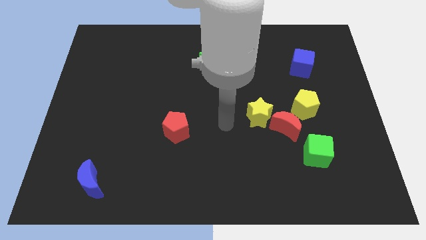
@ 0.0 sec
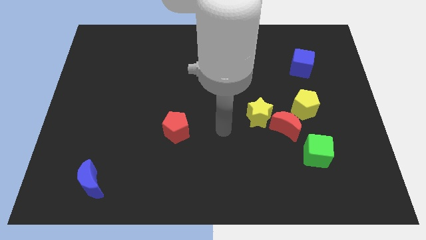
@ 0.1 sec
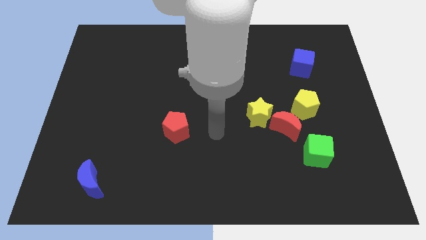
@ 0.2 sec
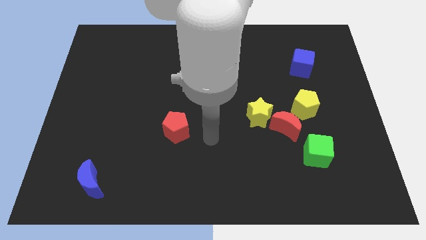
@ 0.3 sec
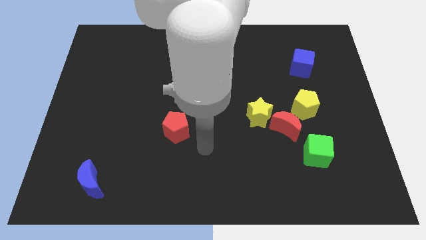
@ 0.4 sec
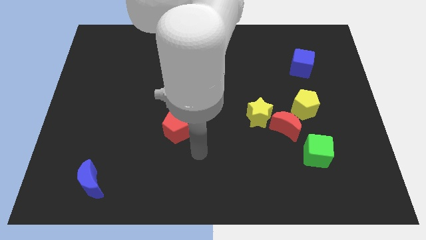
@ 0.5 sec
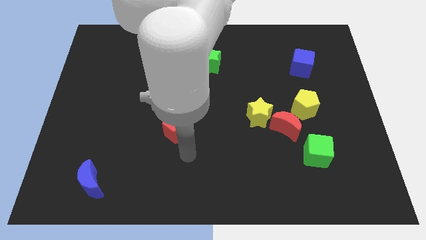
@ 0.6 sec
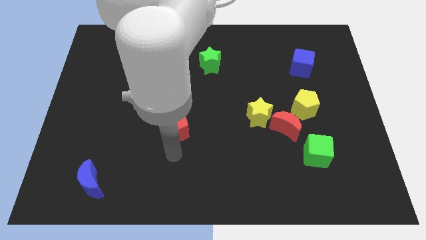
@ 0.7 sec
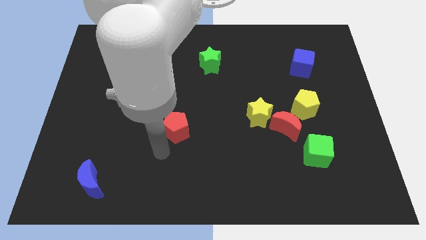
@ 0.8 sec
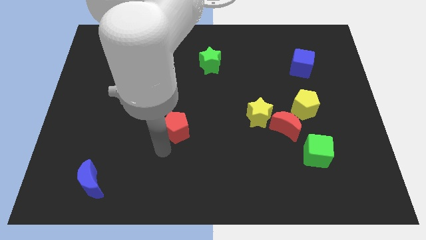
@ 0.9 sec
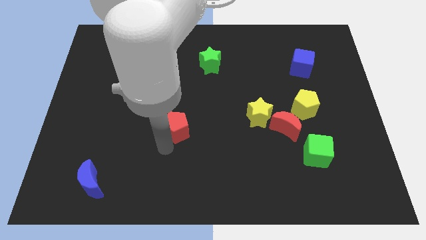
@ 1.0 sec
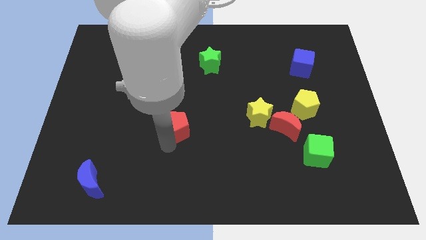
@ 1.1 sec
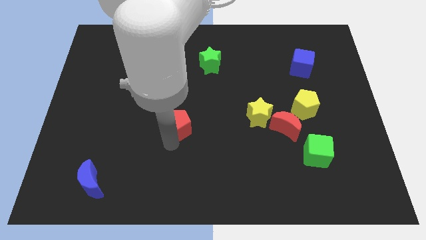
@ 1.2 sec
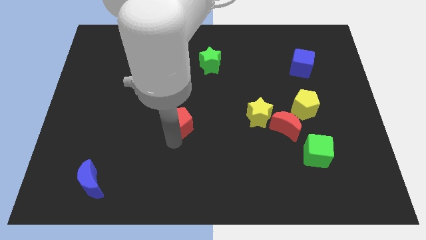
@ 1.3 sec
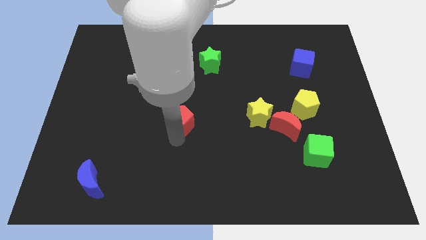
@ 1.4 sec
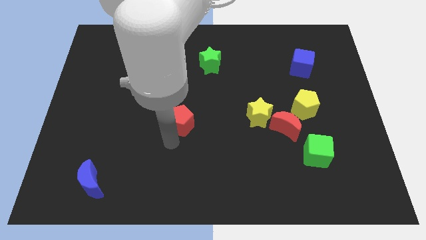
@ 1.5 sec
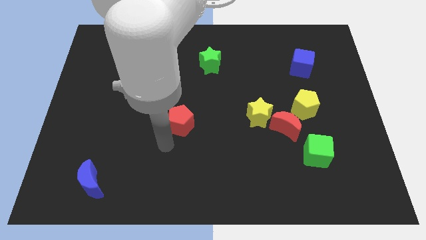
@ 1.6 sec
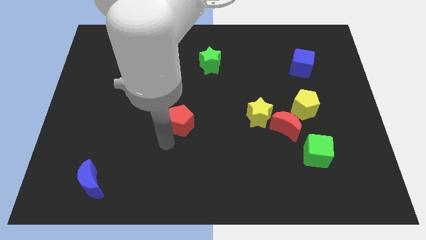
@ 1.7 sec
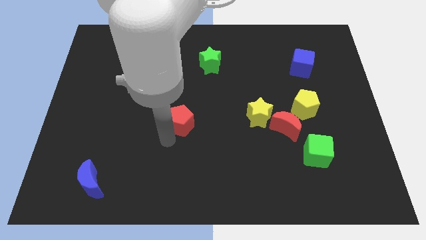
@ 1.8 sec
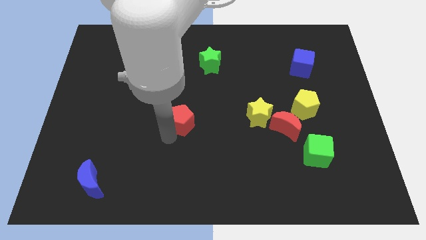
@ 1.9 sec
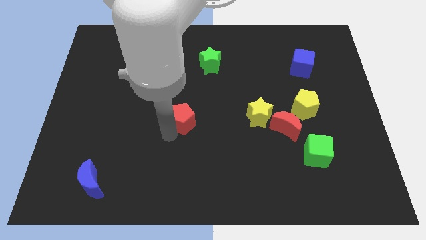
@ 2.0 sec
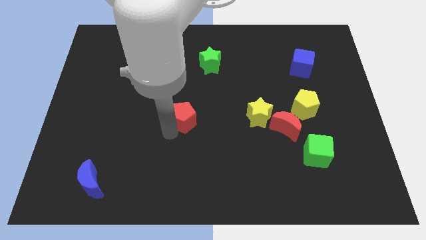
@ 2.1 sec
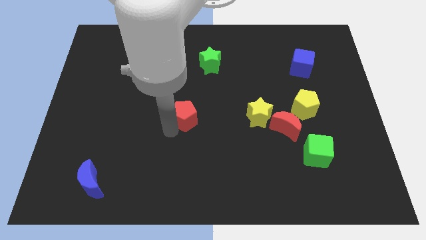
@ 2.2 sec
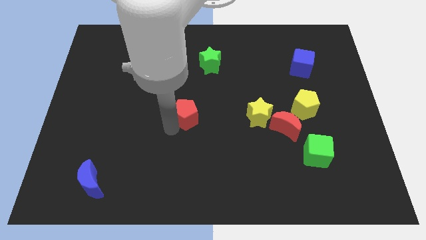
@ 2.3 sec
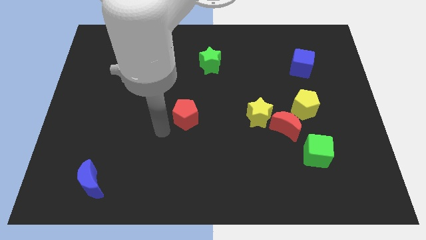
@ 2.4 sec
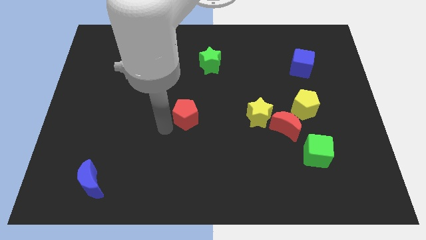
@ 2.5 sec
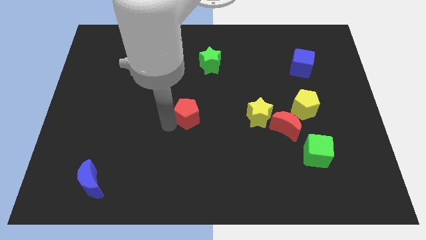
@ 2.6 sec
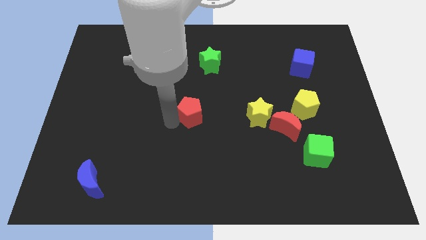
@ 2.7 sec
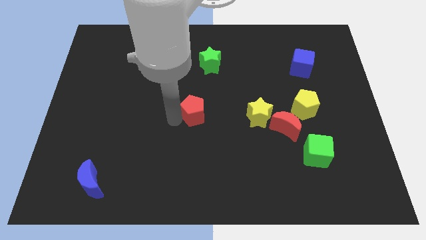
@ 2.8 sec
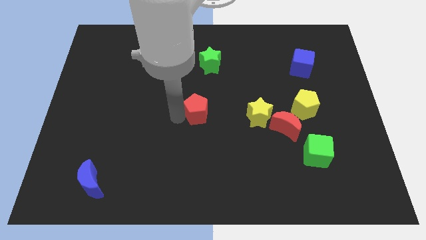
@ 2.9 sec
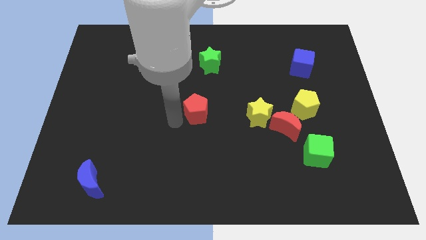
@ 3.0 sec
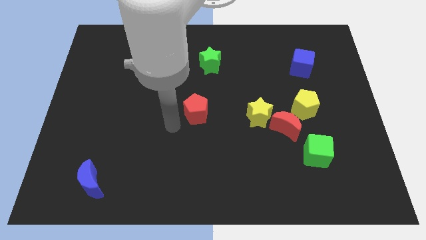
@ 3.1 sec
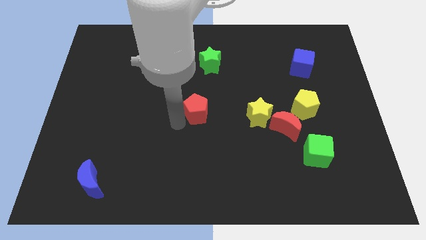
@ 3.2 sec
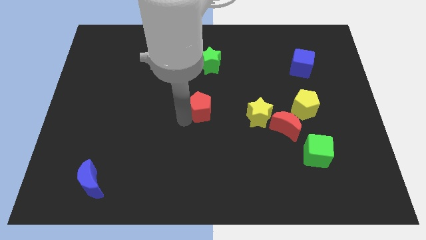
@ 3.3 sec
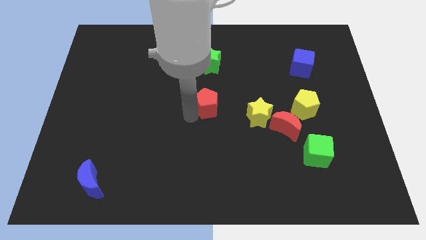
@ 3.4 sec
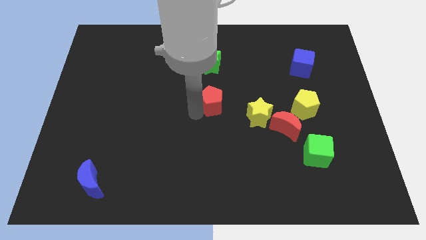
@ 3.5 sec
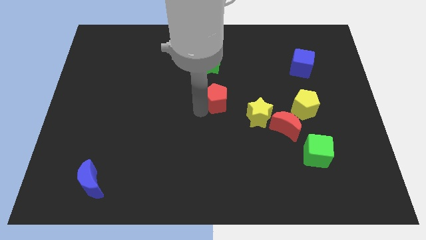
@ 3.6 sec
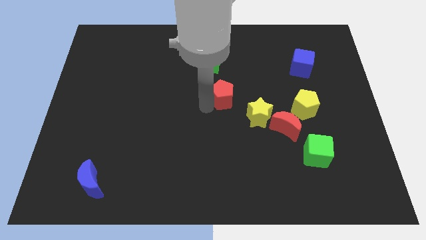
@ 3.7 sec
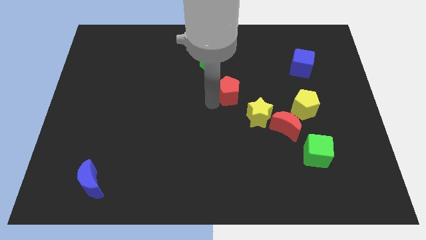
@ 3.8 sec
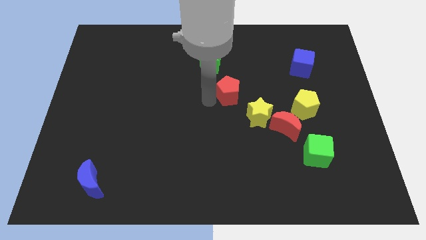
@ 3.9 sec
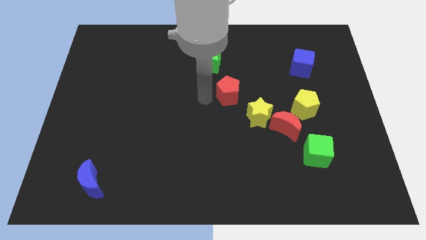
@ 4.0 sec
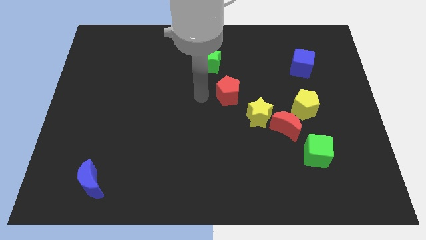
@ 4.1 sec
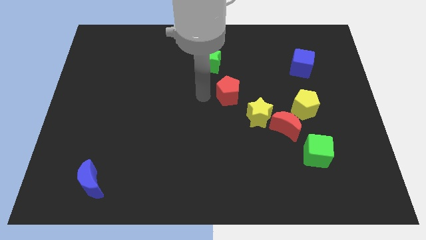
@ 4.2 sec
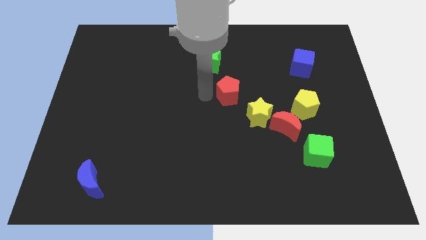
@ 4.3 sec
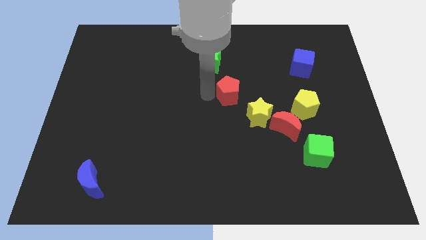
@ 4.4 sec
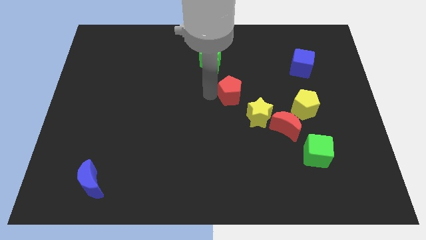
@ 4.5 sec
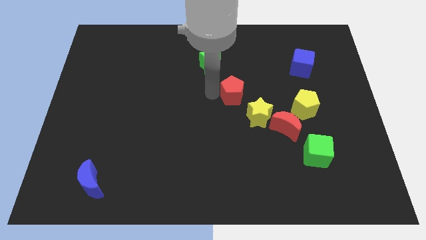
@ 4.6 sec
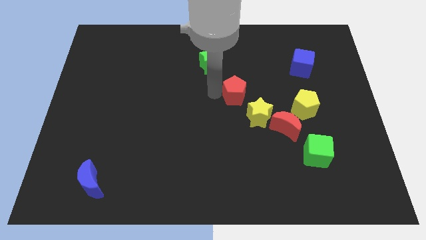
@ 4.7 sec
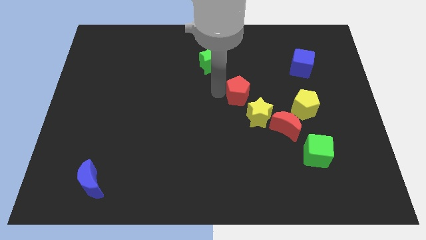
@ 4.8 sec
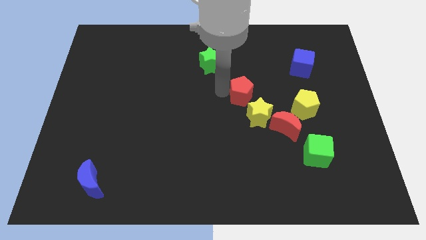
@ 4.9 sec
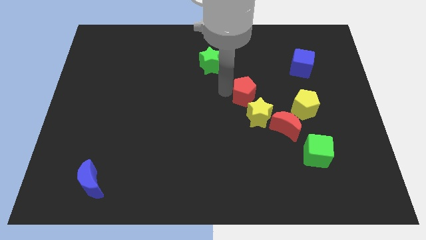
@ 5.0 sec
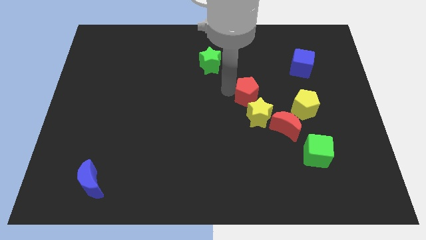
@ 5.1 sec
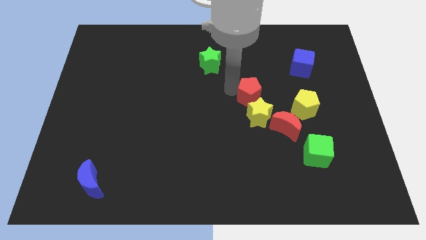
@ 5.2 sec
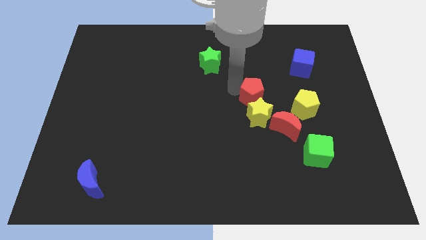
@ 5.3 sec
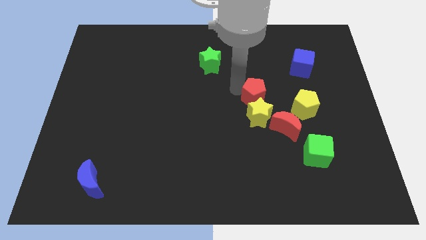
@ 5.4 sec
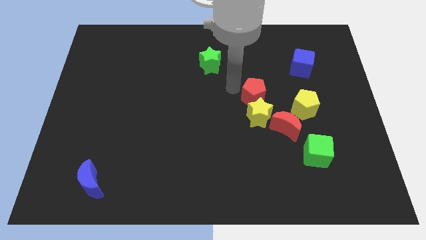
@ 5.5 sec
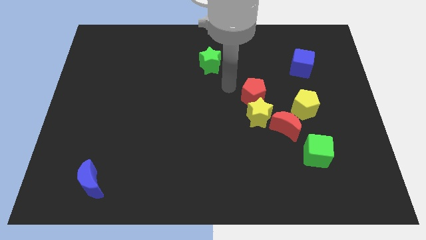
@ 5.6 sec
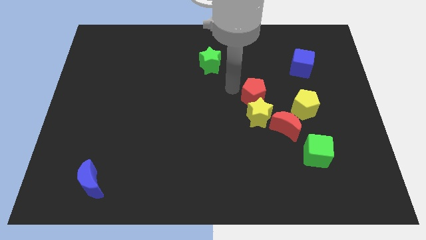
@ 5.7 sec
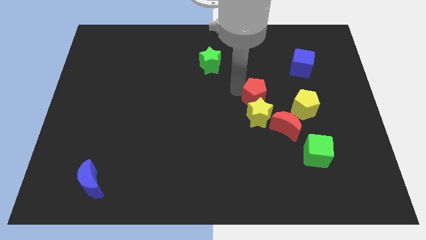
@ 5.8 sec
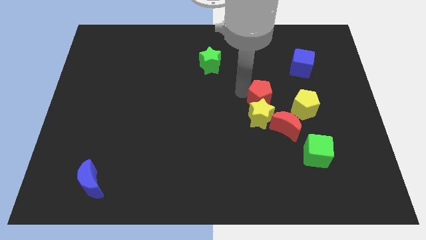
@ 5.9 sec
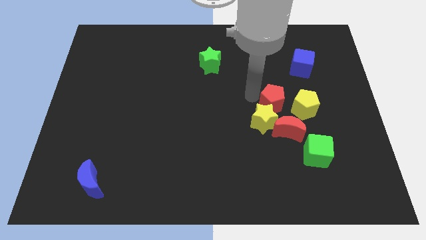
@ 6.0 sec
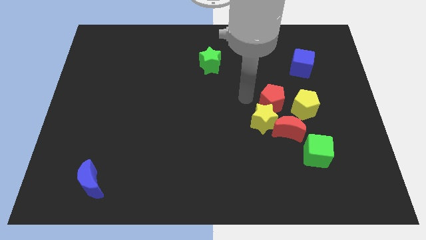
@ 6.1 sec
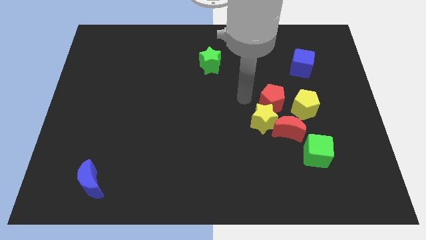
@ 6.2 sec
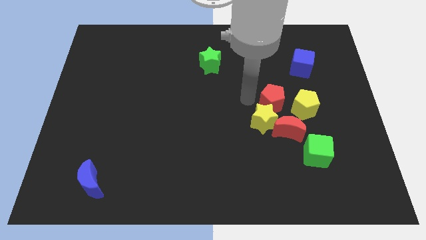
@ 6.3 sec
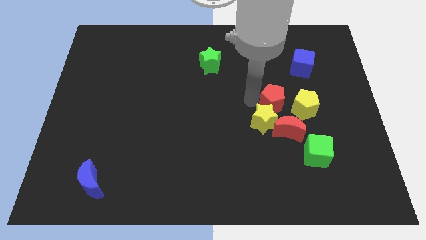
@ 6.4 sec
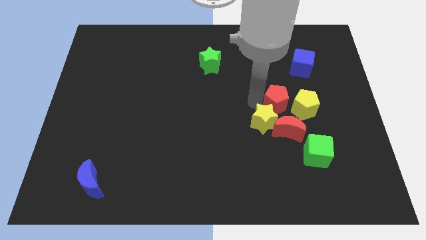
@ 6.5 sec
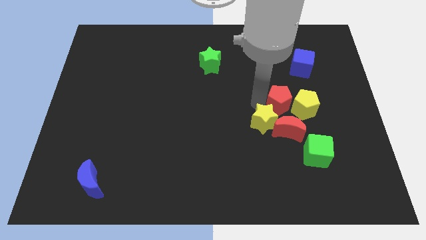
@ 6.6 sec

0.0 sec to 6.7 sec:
slide the red pentagon to the yellow pentagon

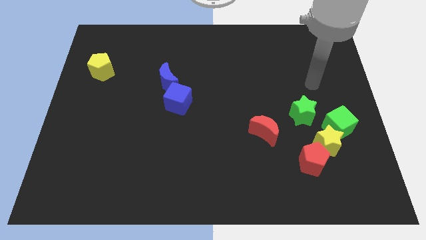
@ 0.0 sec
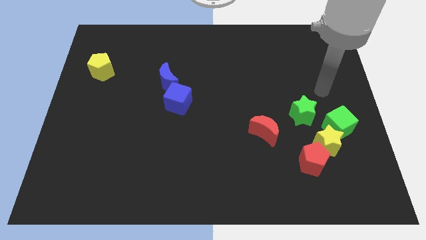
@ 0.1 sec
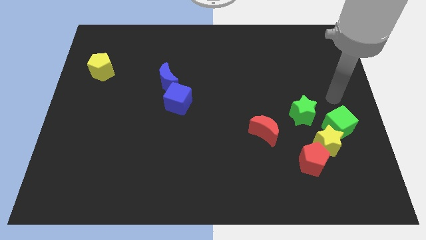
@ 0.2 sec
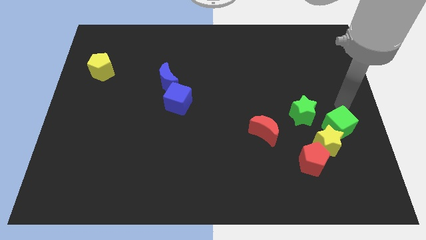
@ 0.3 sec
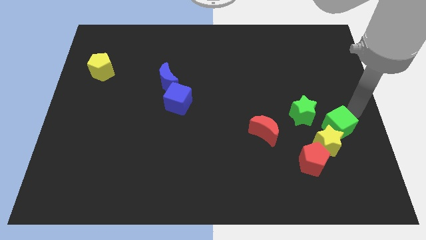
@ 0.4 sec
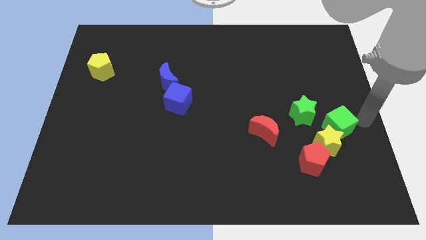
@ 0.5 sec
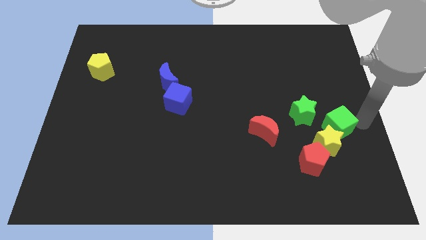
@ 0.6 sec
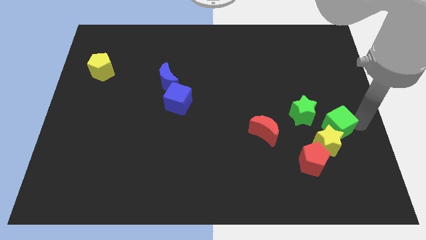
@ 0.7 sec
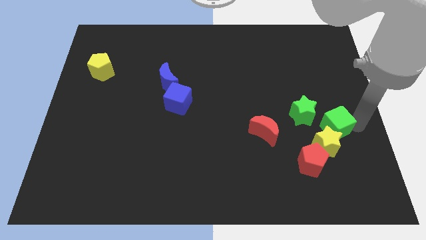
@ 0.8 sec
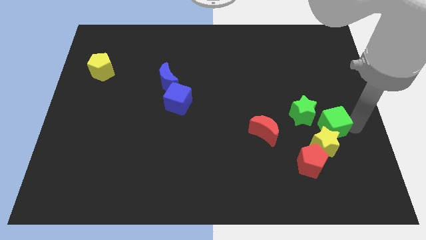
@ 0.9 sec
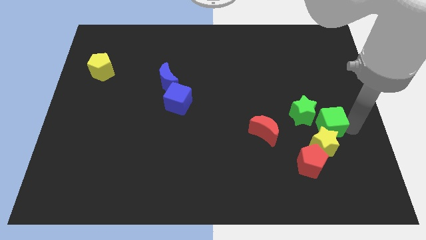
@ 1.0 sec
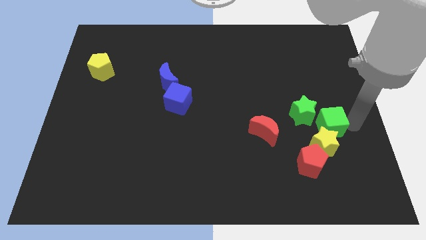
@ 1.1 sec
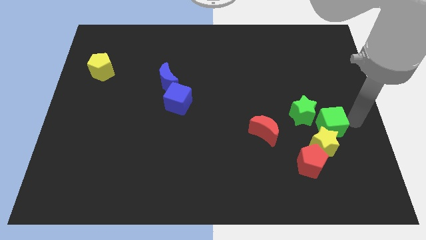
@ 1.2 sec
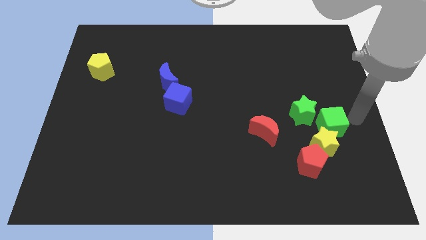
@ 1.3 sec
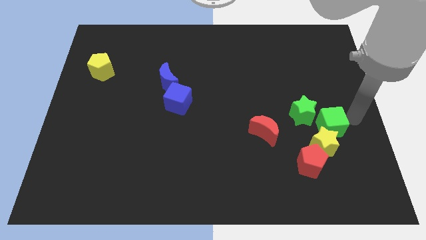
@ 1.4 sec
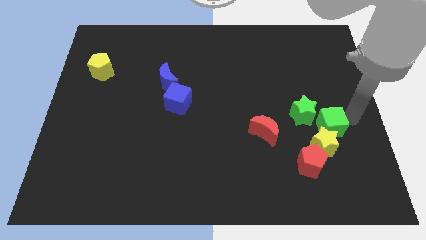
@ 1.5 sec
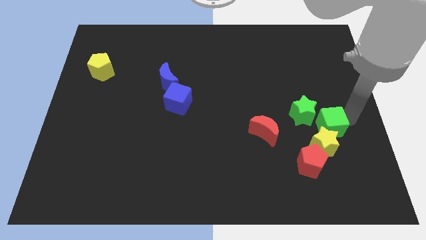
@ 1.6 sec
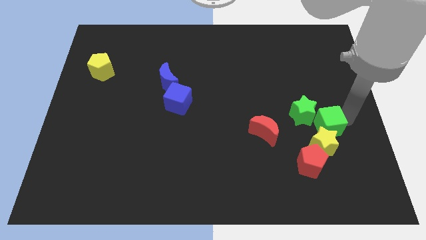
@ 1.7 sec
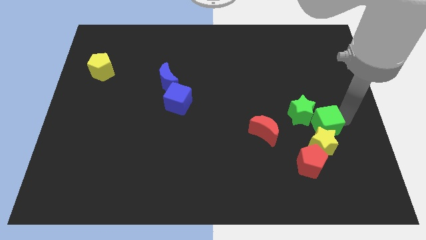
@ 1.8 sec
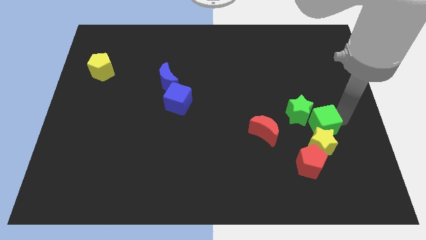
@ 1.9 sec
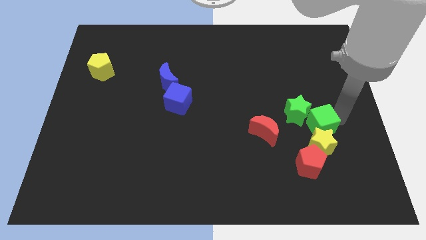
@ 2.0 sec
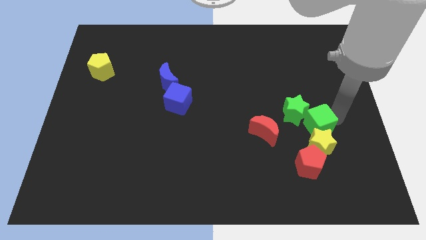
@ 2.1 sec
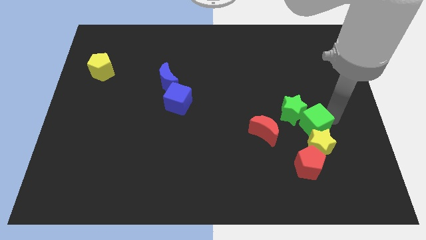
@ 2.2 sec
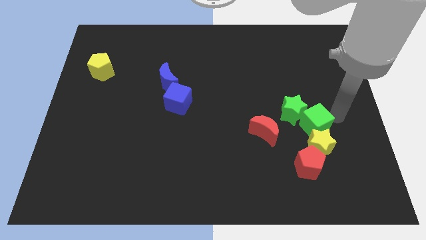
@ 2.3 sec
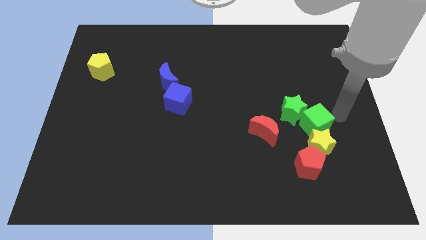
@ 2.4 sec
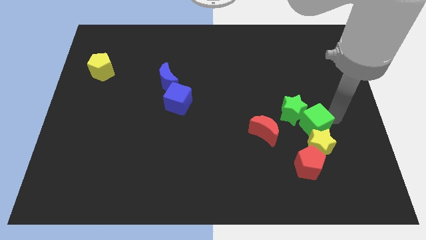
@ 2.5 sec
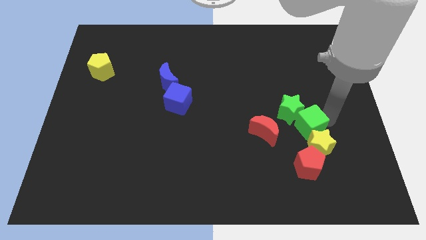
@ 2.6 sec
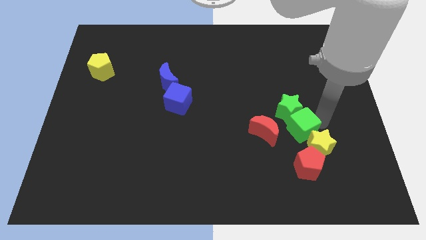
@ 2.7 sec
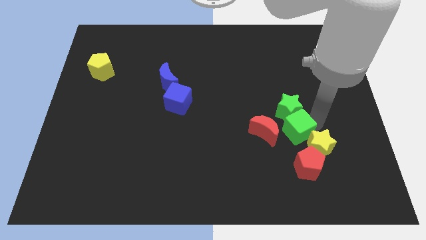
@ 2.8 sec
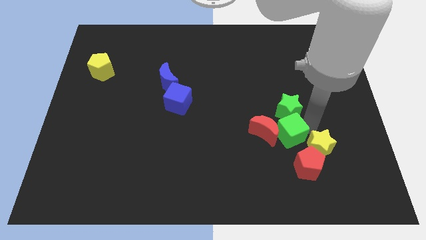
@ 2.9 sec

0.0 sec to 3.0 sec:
put the green cube towards the red moon
